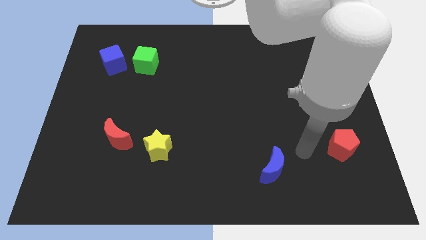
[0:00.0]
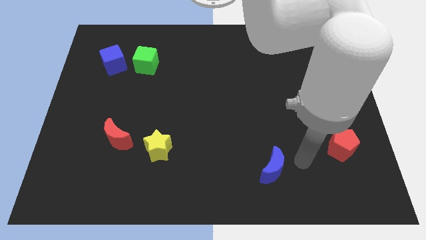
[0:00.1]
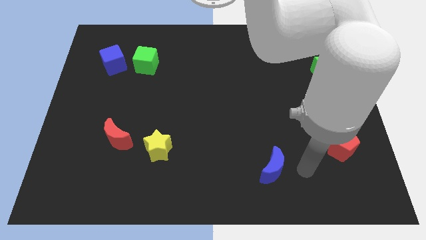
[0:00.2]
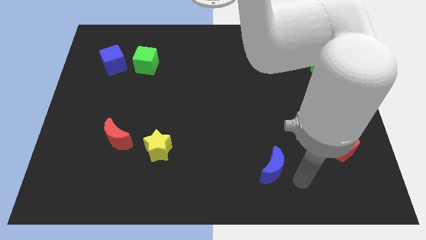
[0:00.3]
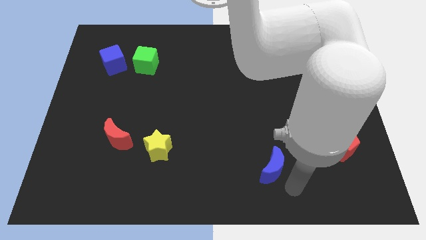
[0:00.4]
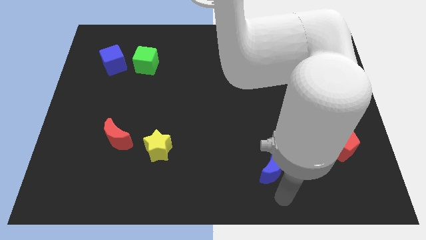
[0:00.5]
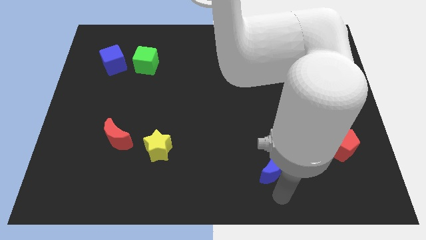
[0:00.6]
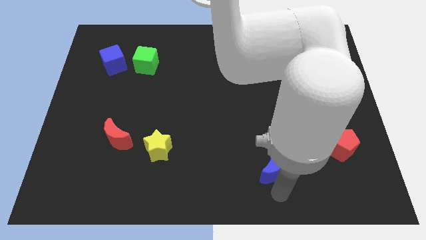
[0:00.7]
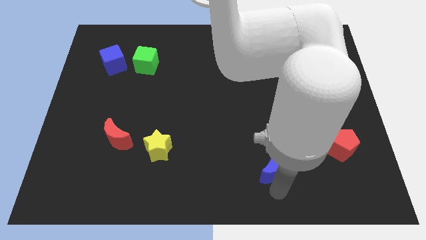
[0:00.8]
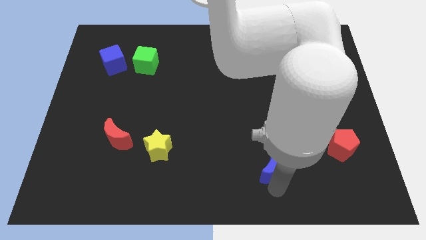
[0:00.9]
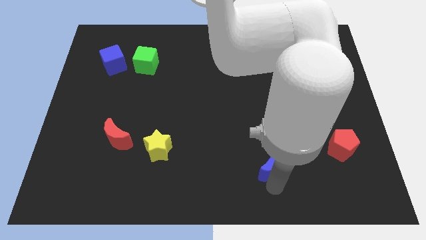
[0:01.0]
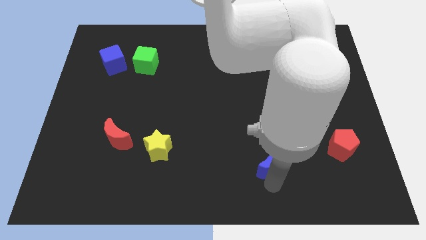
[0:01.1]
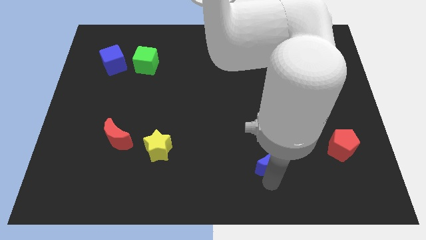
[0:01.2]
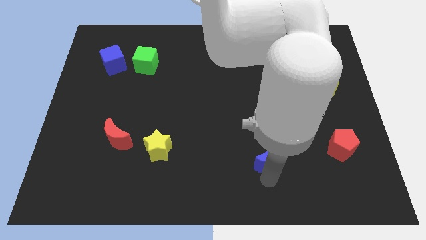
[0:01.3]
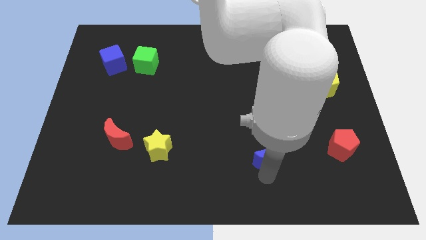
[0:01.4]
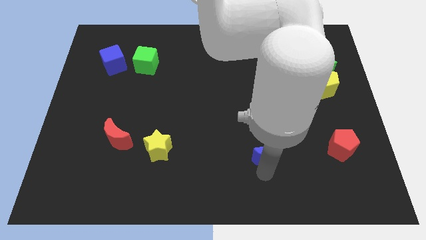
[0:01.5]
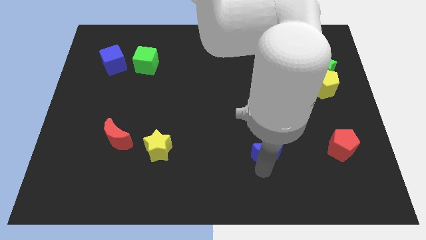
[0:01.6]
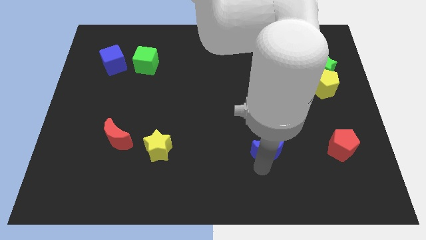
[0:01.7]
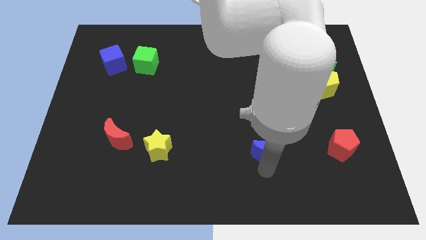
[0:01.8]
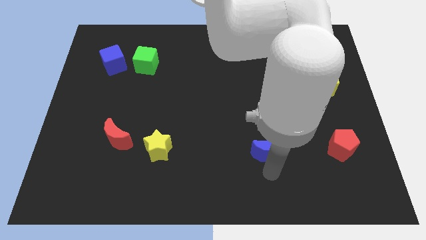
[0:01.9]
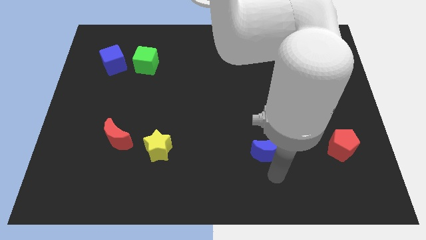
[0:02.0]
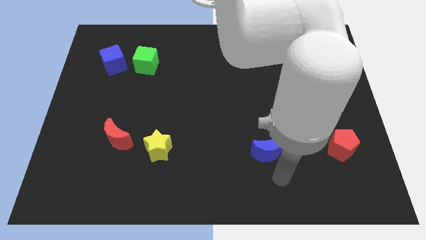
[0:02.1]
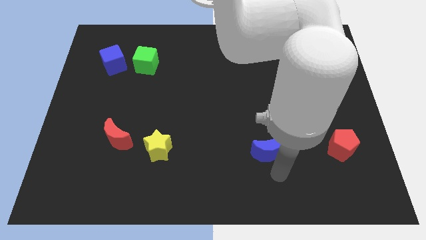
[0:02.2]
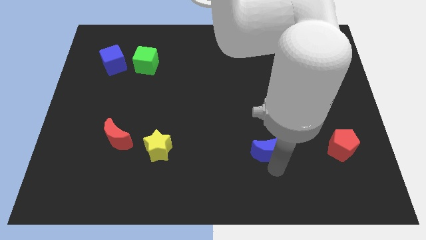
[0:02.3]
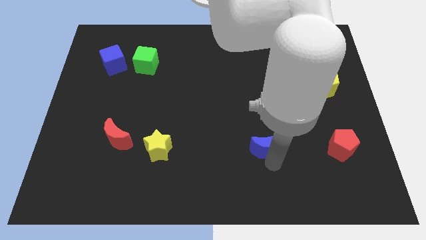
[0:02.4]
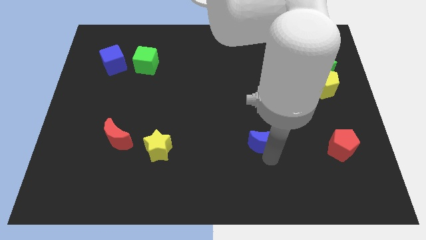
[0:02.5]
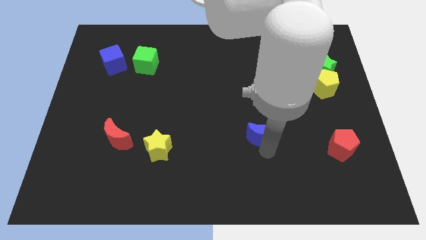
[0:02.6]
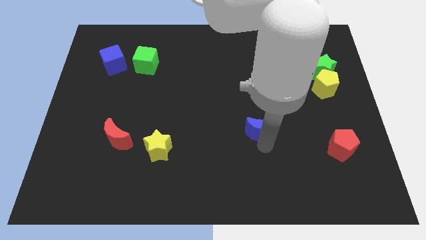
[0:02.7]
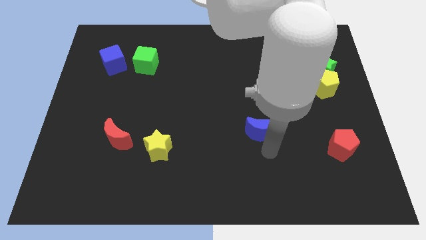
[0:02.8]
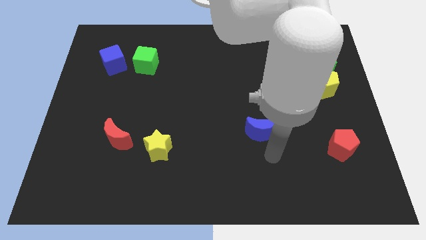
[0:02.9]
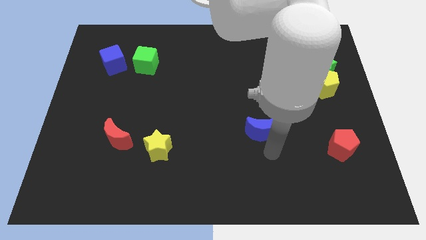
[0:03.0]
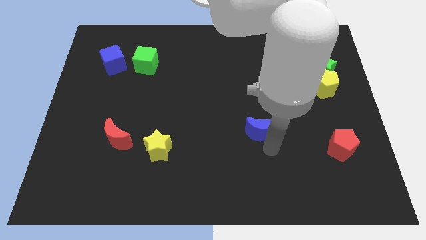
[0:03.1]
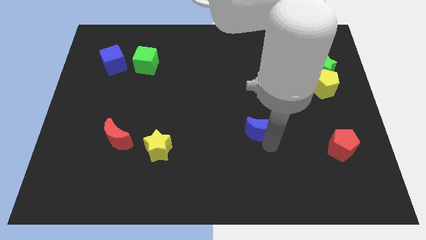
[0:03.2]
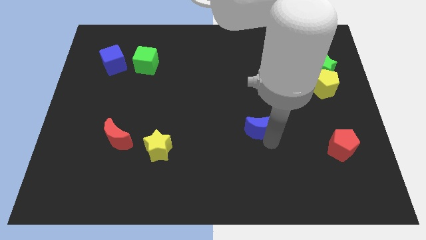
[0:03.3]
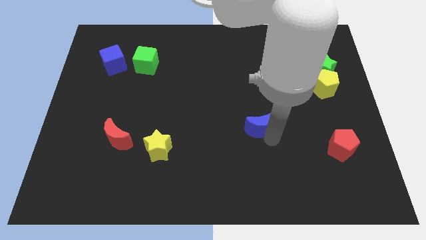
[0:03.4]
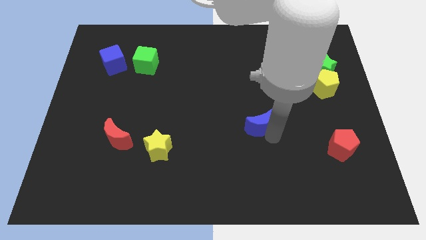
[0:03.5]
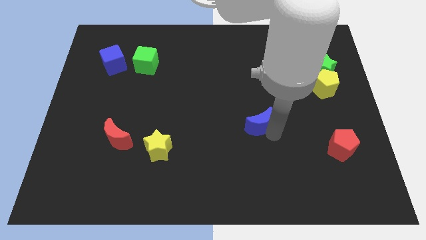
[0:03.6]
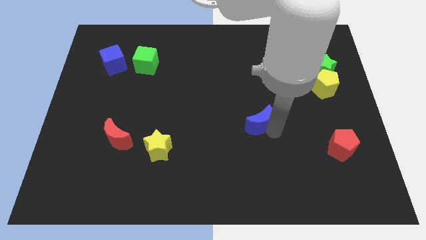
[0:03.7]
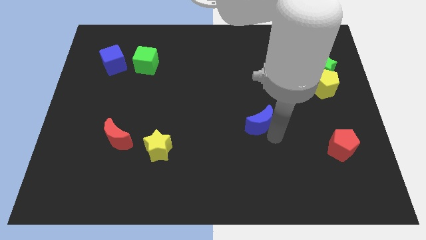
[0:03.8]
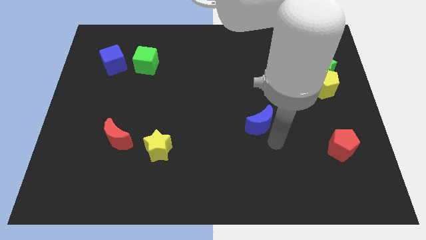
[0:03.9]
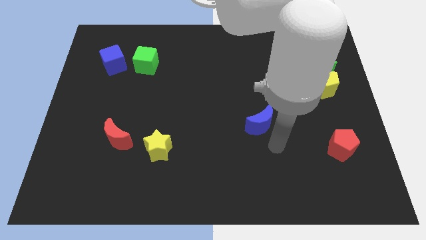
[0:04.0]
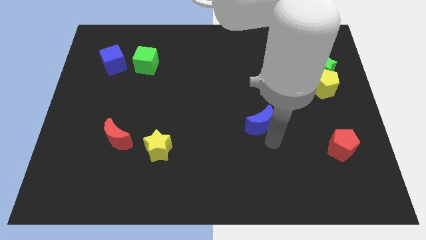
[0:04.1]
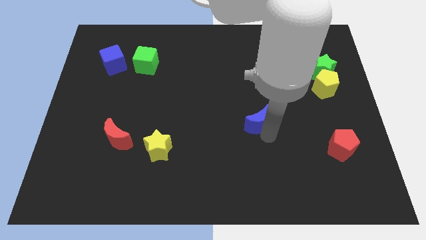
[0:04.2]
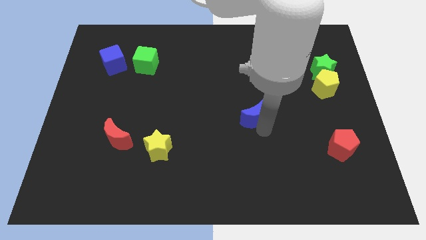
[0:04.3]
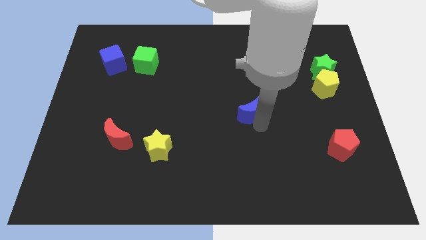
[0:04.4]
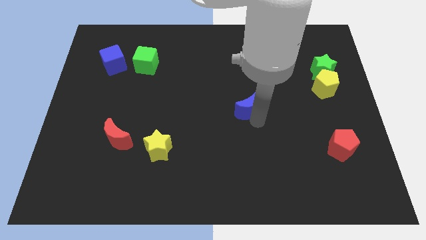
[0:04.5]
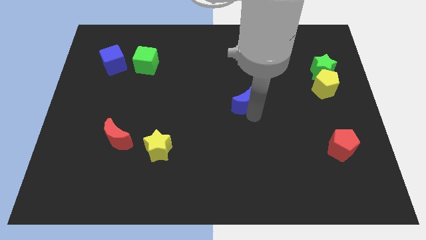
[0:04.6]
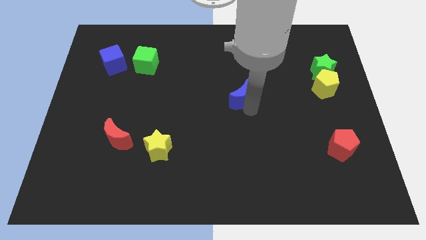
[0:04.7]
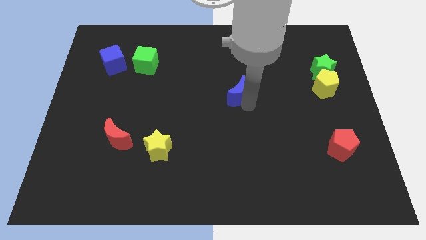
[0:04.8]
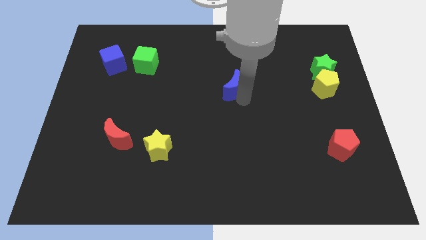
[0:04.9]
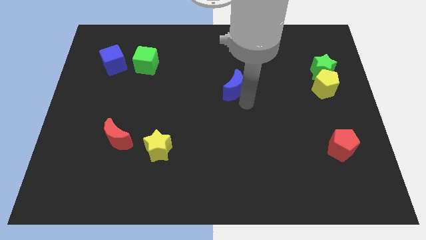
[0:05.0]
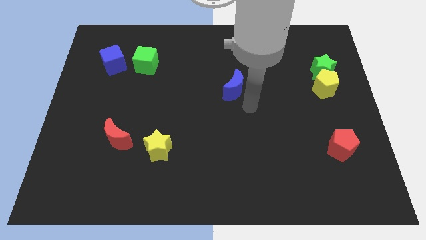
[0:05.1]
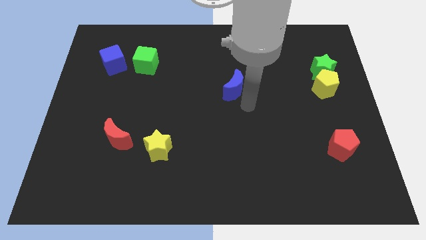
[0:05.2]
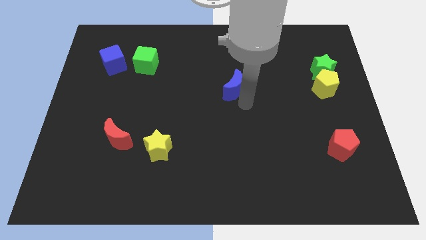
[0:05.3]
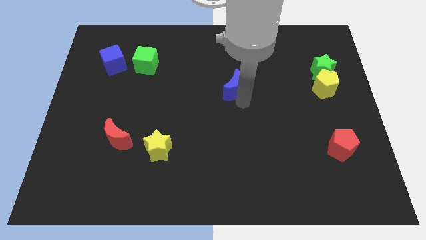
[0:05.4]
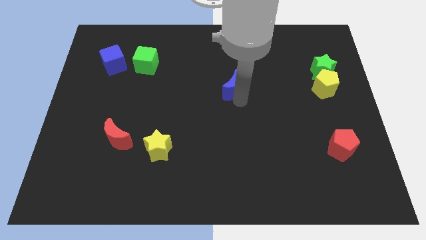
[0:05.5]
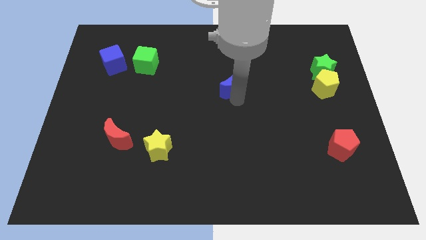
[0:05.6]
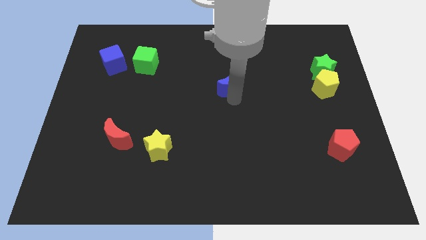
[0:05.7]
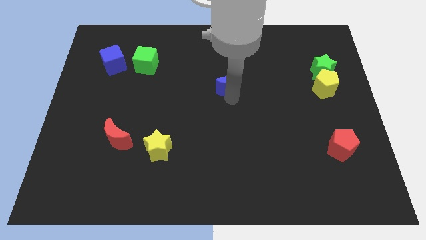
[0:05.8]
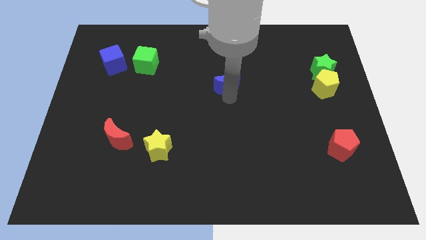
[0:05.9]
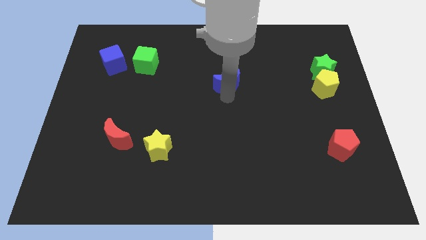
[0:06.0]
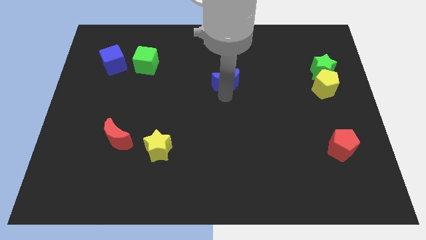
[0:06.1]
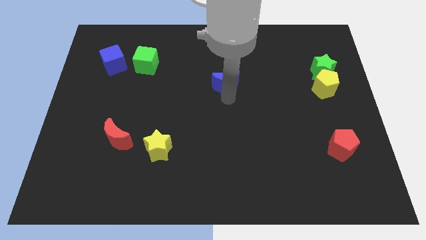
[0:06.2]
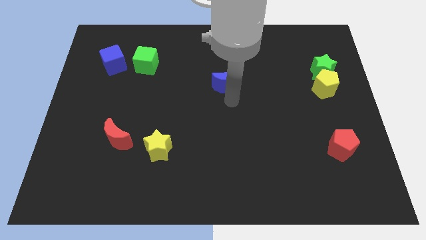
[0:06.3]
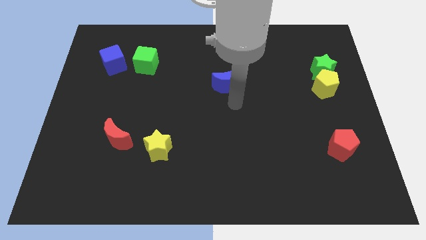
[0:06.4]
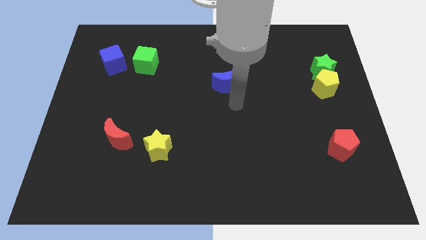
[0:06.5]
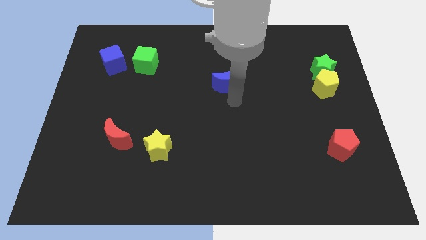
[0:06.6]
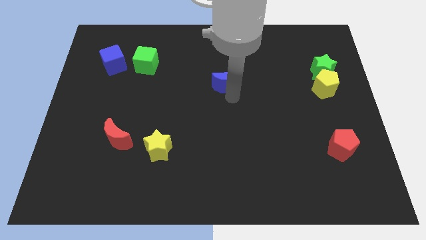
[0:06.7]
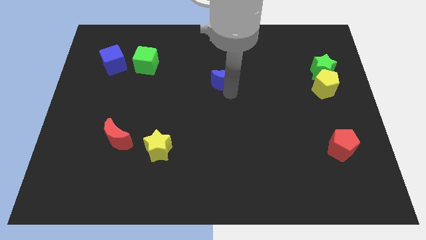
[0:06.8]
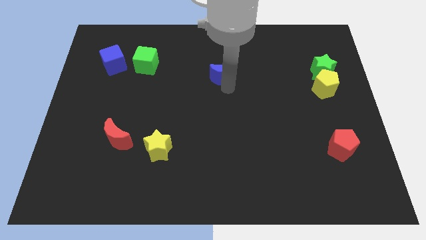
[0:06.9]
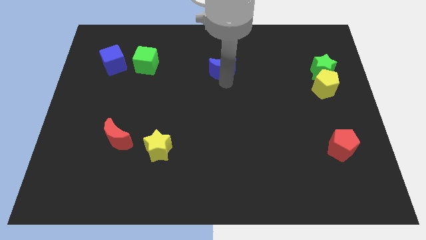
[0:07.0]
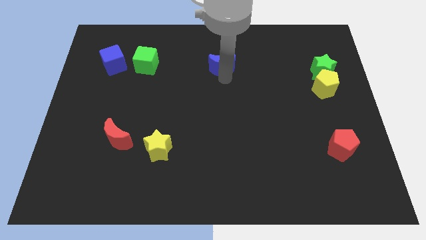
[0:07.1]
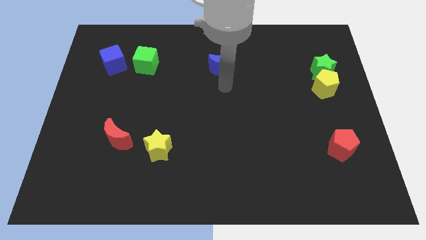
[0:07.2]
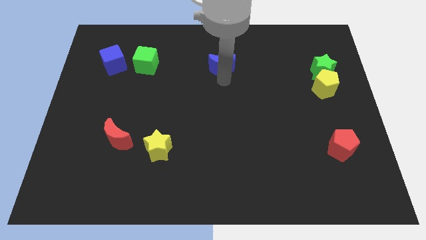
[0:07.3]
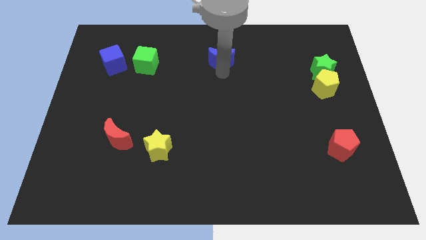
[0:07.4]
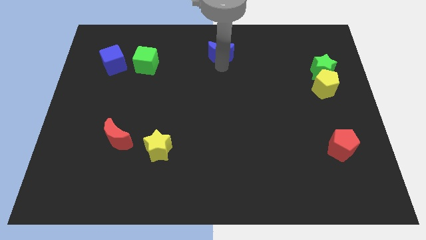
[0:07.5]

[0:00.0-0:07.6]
put the blue moon to the top side
